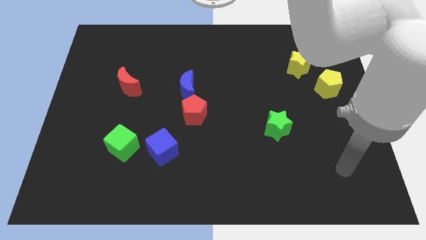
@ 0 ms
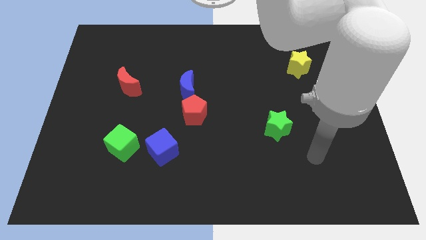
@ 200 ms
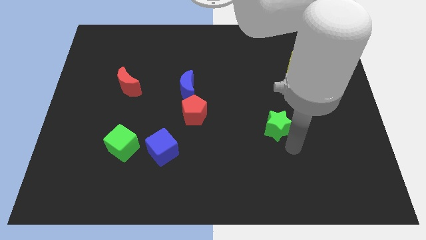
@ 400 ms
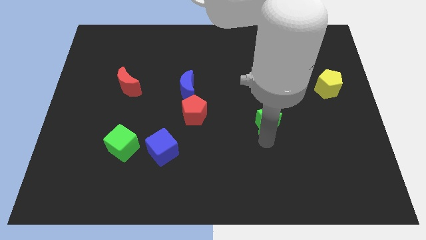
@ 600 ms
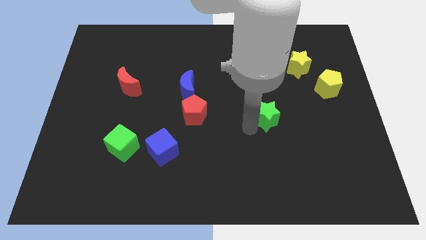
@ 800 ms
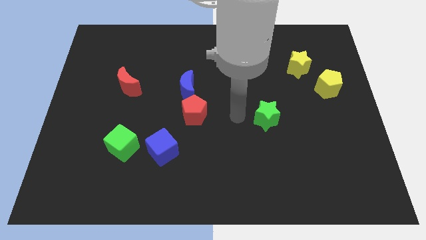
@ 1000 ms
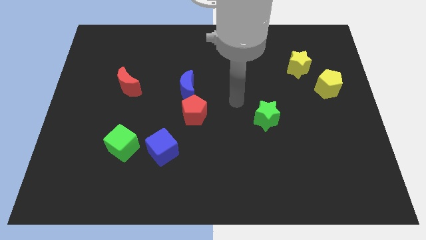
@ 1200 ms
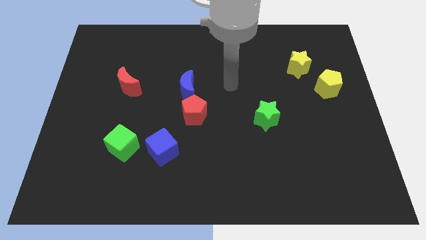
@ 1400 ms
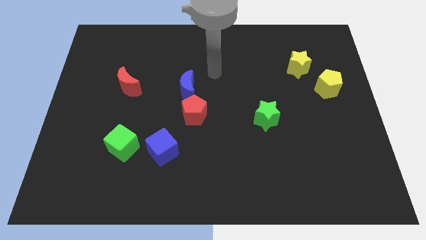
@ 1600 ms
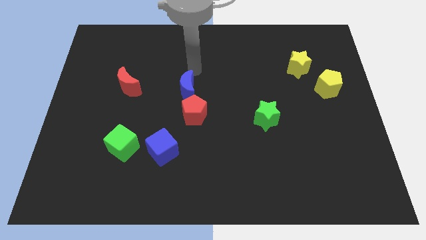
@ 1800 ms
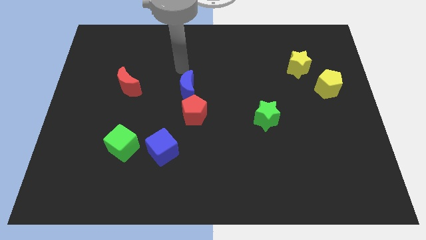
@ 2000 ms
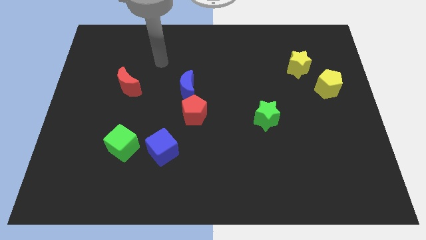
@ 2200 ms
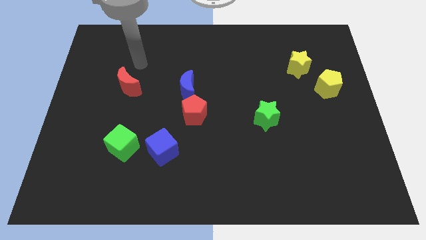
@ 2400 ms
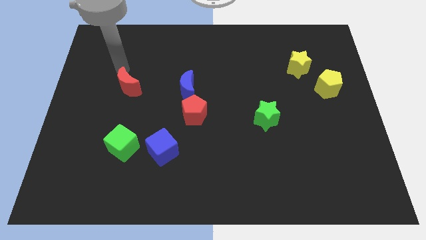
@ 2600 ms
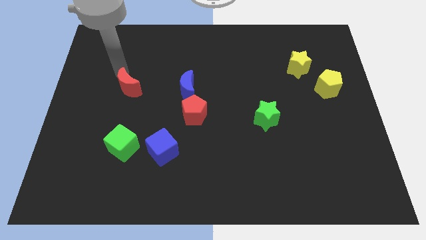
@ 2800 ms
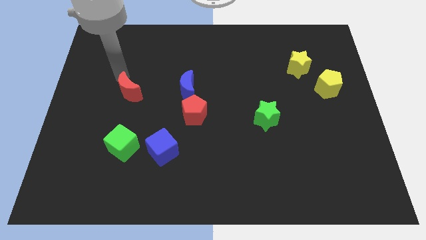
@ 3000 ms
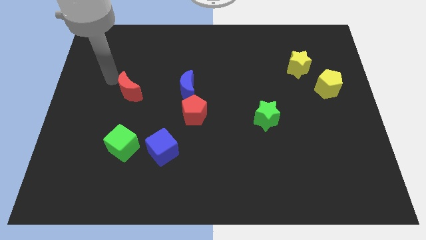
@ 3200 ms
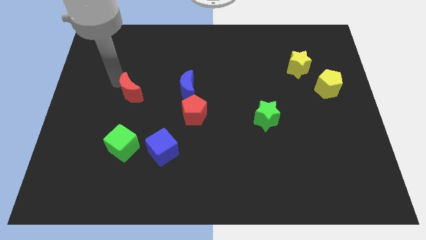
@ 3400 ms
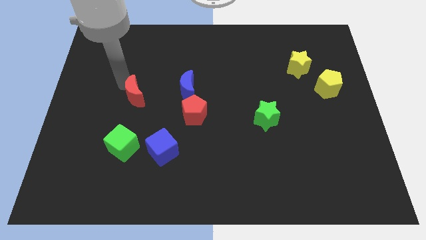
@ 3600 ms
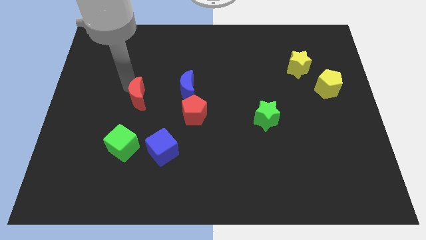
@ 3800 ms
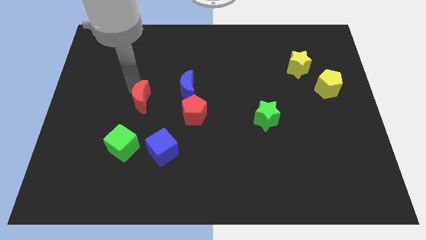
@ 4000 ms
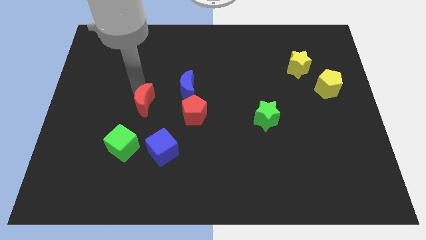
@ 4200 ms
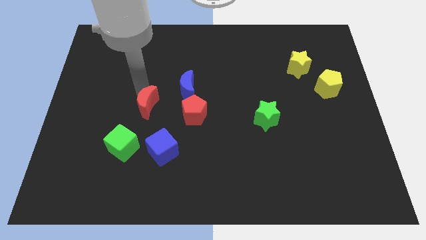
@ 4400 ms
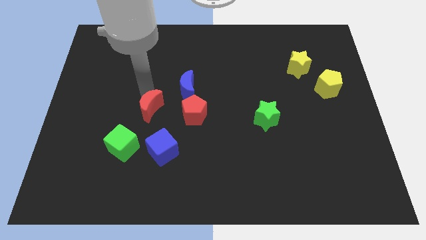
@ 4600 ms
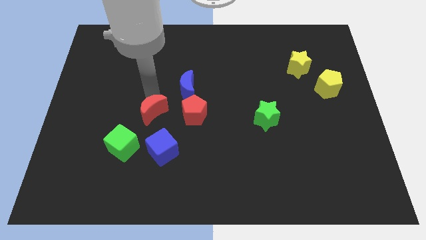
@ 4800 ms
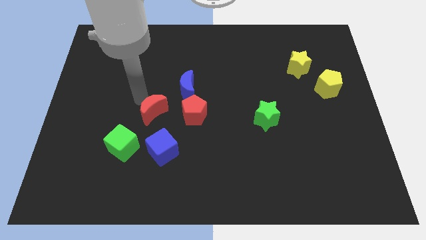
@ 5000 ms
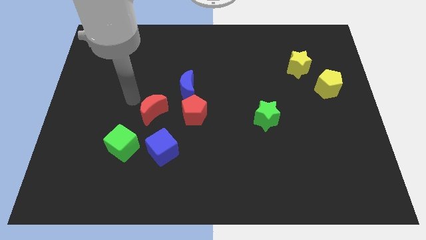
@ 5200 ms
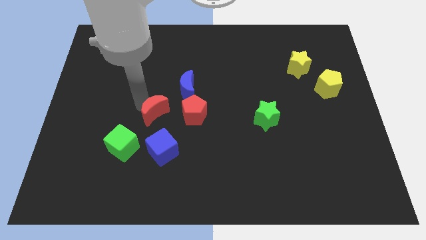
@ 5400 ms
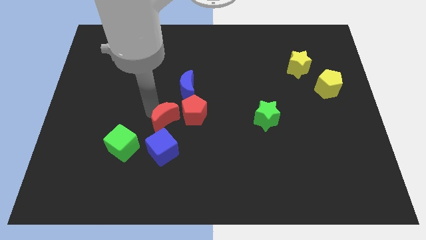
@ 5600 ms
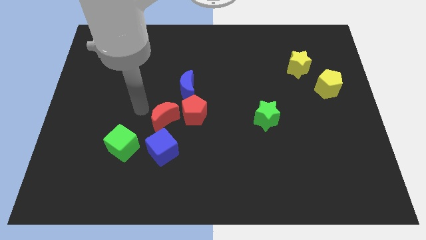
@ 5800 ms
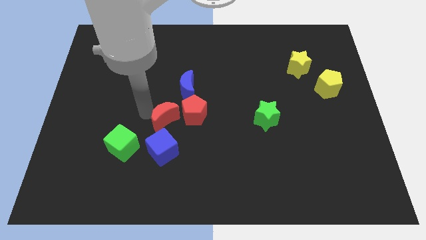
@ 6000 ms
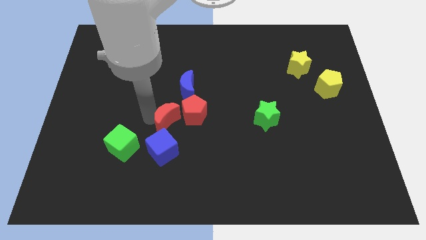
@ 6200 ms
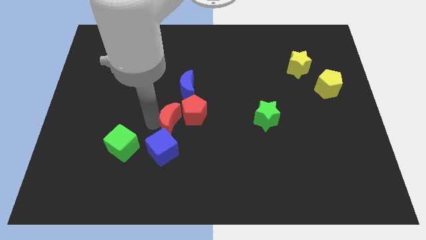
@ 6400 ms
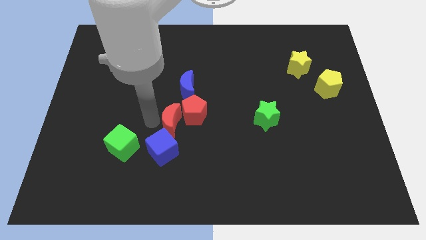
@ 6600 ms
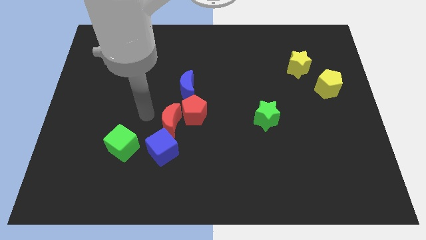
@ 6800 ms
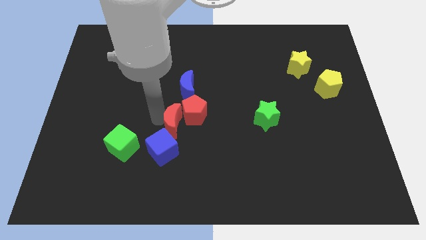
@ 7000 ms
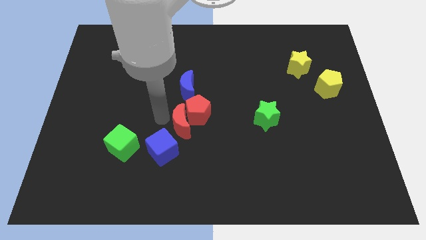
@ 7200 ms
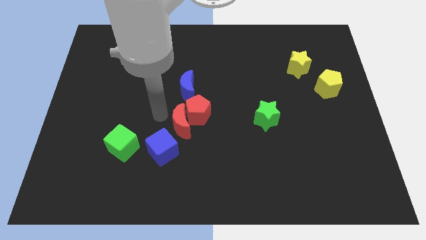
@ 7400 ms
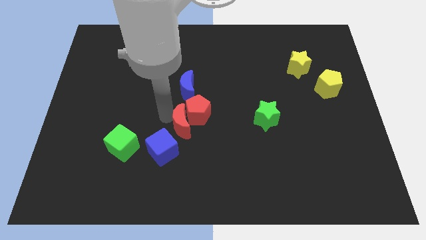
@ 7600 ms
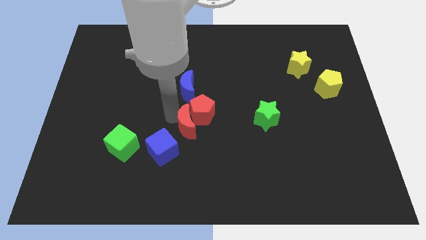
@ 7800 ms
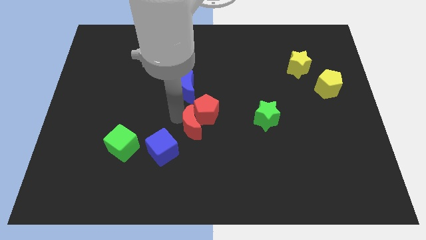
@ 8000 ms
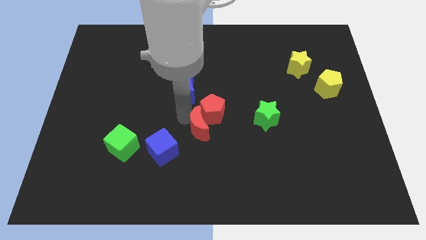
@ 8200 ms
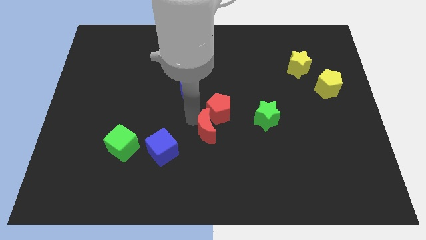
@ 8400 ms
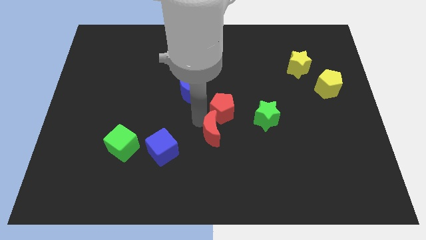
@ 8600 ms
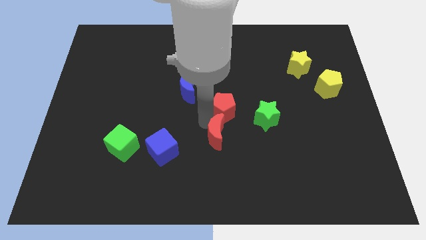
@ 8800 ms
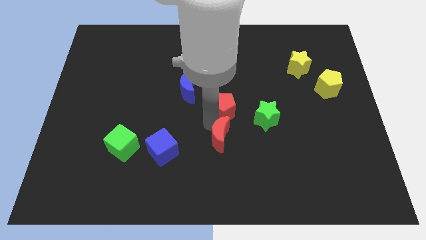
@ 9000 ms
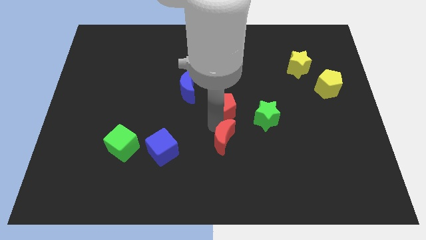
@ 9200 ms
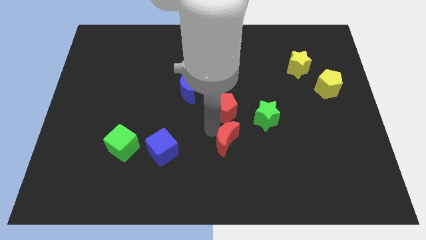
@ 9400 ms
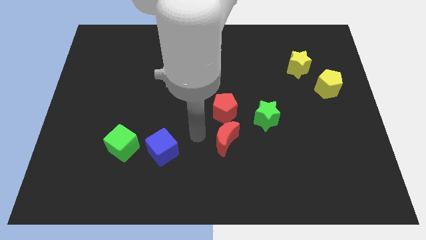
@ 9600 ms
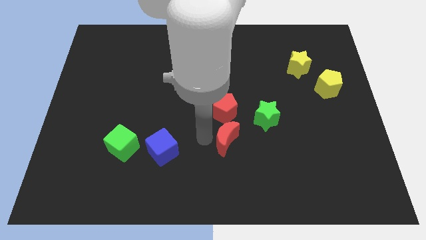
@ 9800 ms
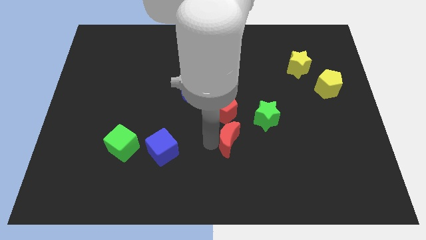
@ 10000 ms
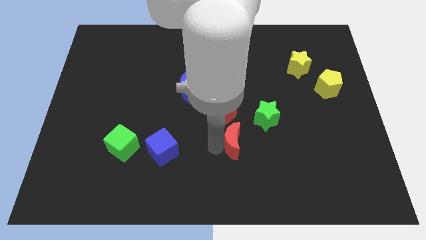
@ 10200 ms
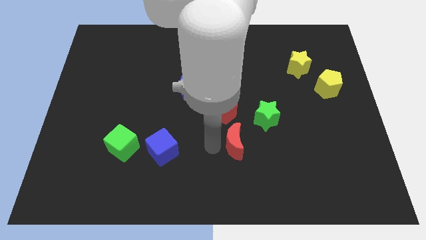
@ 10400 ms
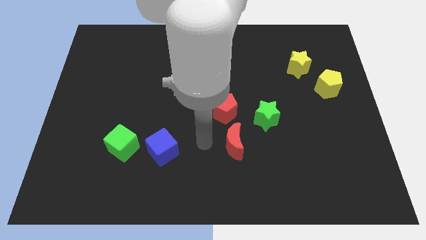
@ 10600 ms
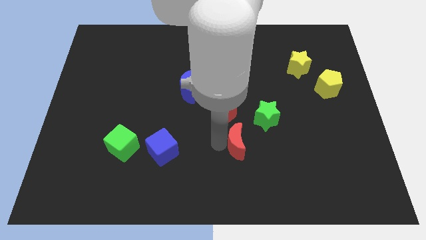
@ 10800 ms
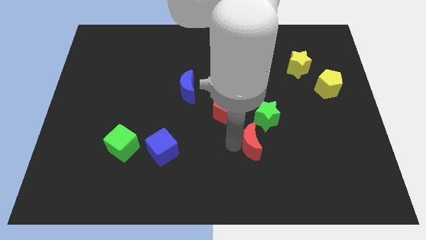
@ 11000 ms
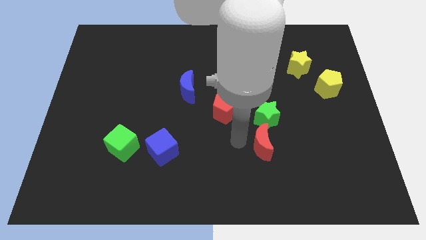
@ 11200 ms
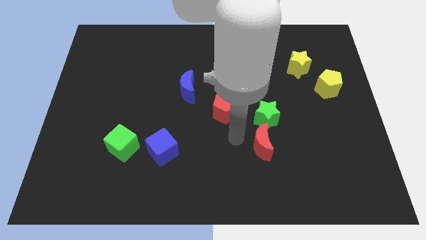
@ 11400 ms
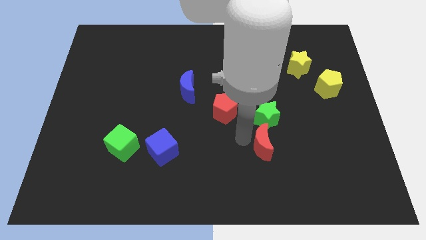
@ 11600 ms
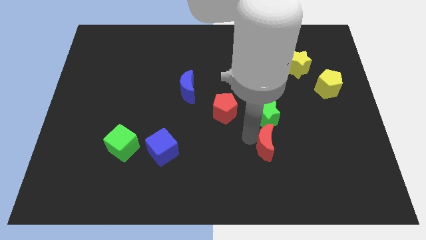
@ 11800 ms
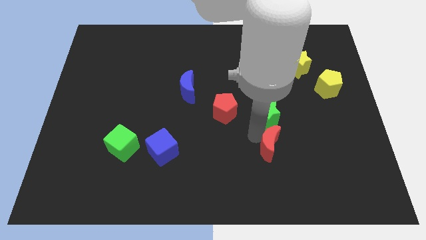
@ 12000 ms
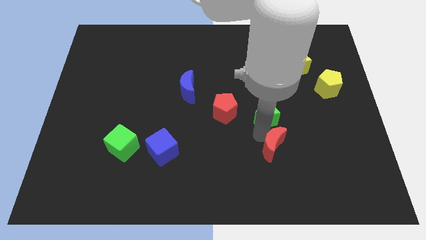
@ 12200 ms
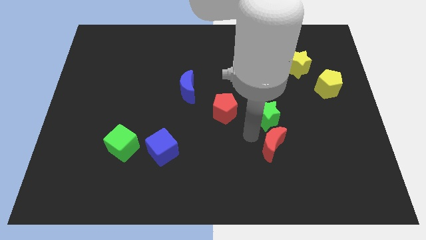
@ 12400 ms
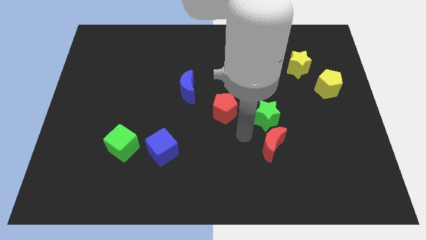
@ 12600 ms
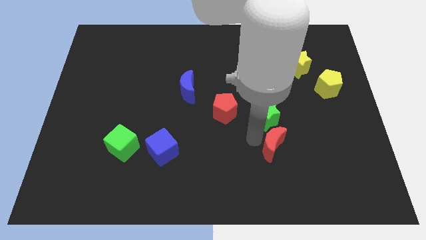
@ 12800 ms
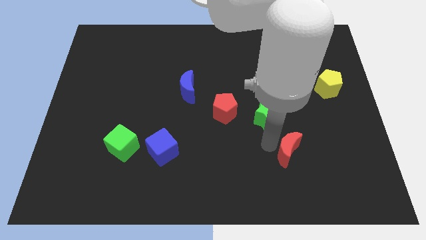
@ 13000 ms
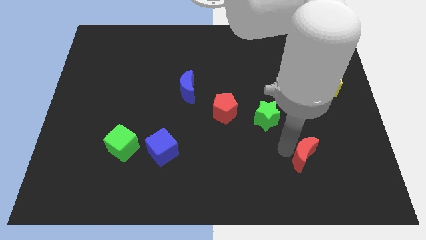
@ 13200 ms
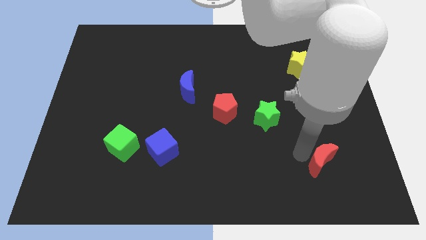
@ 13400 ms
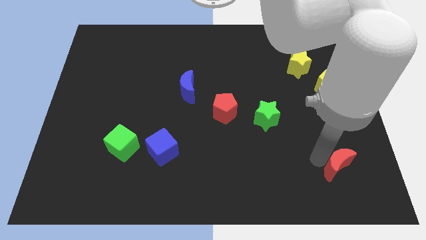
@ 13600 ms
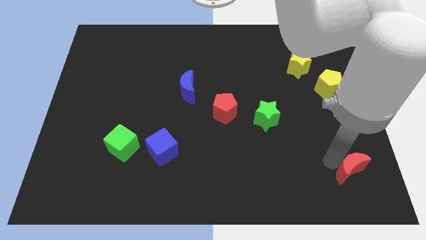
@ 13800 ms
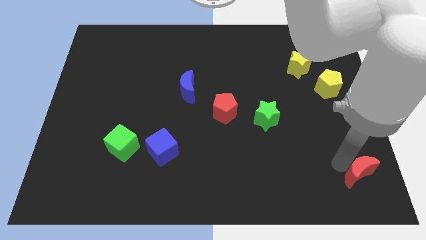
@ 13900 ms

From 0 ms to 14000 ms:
put the red moon to the lower right corner
